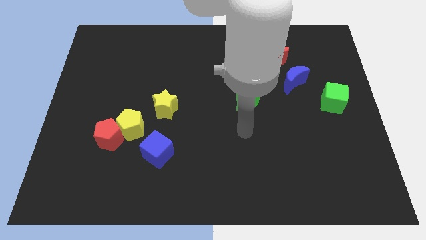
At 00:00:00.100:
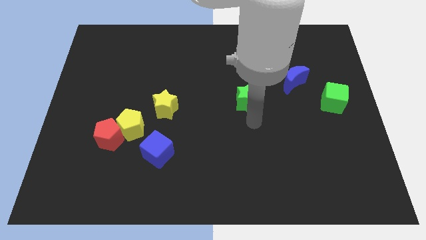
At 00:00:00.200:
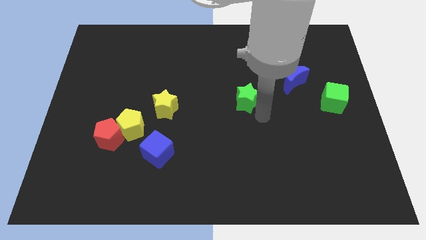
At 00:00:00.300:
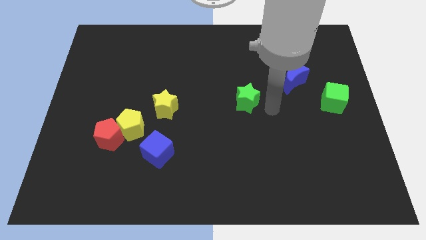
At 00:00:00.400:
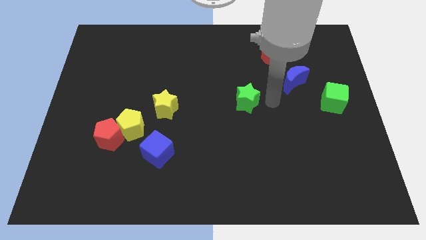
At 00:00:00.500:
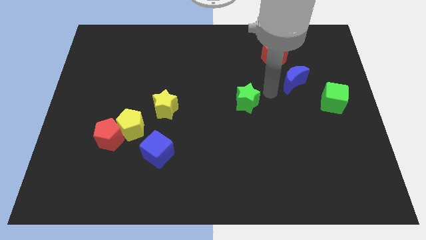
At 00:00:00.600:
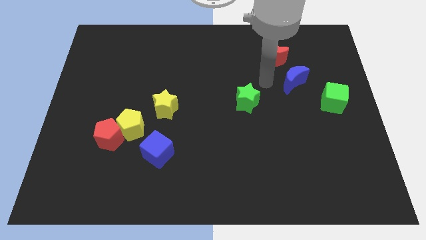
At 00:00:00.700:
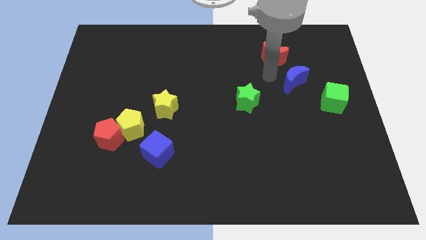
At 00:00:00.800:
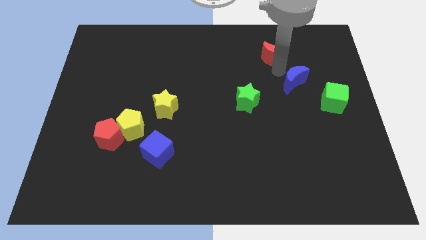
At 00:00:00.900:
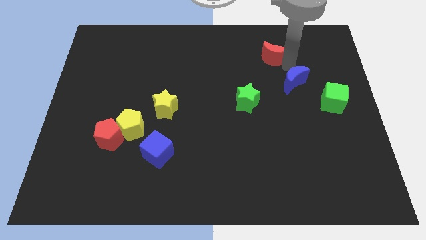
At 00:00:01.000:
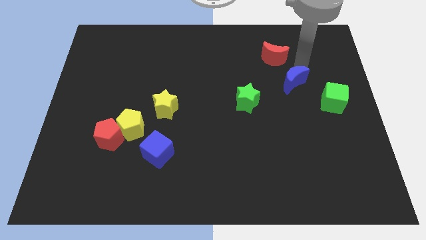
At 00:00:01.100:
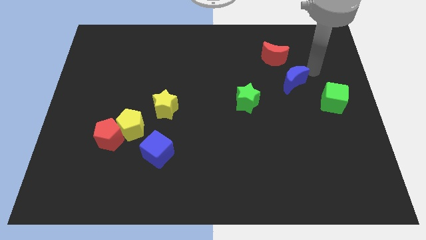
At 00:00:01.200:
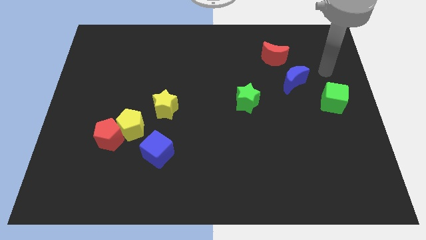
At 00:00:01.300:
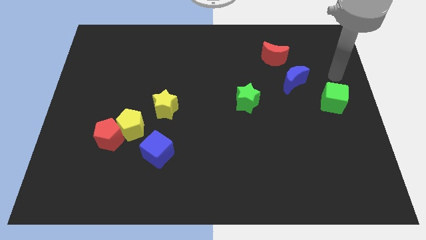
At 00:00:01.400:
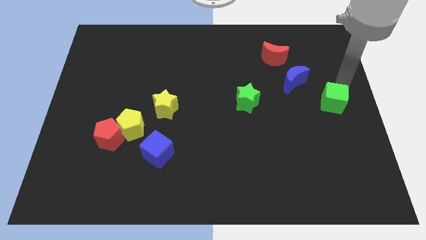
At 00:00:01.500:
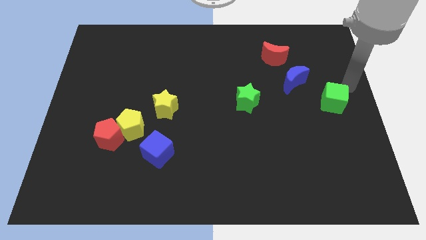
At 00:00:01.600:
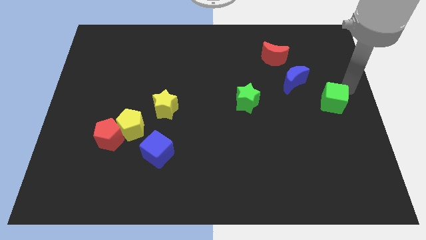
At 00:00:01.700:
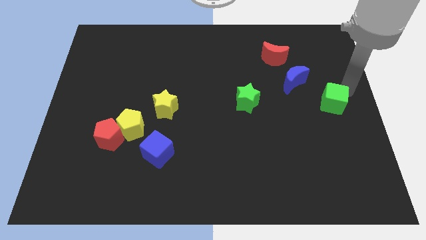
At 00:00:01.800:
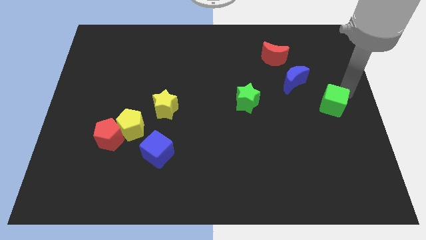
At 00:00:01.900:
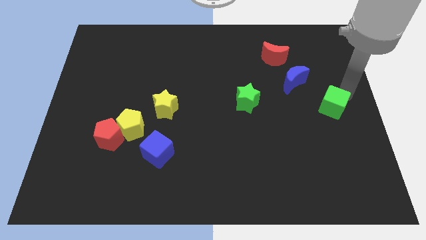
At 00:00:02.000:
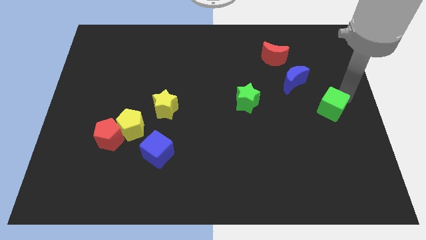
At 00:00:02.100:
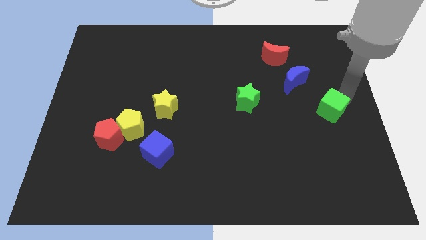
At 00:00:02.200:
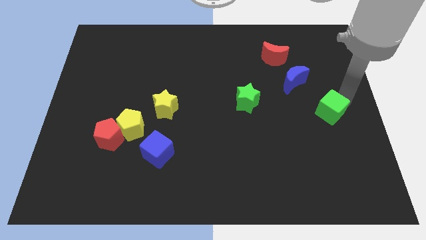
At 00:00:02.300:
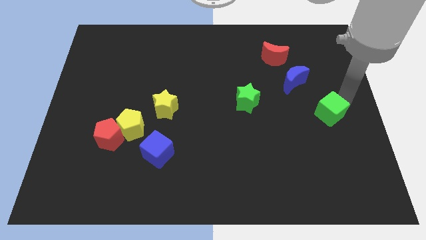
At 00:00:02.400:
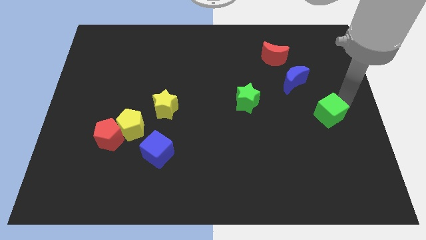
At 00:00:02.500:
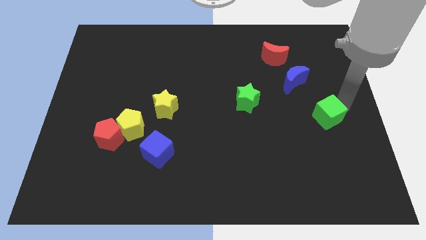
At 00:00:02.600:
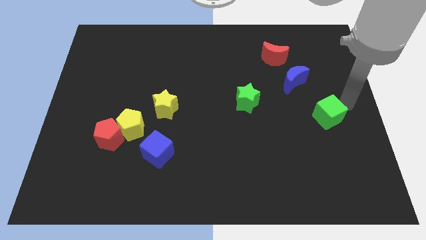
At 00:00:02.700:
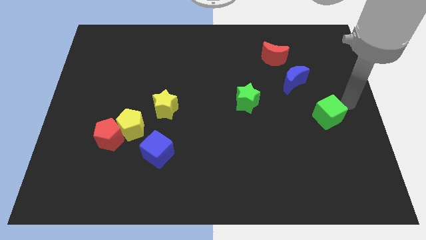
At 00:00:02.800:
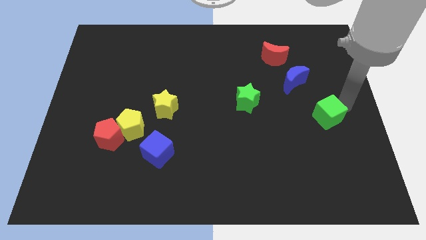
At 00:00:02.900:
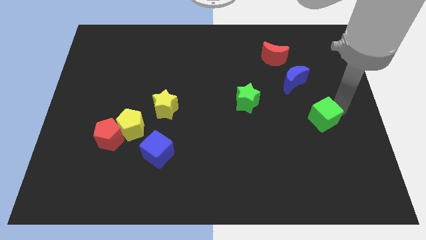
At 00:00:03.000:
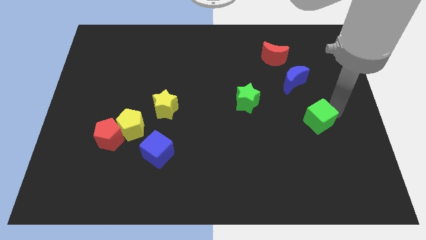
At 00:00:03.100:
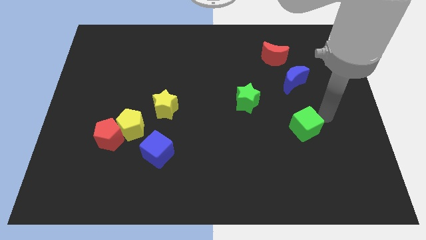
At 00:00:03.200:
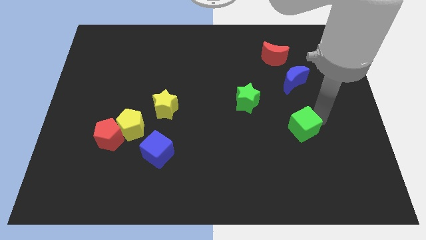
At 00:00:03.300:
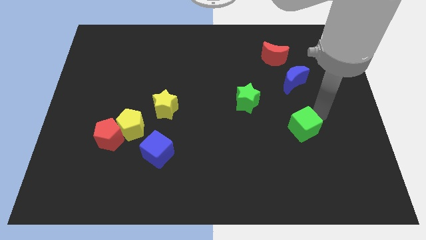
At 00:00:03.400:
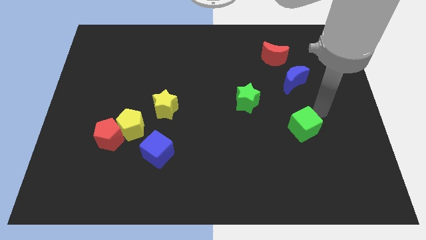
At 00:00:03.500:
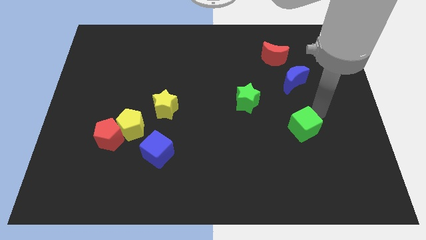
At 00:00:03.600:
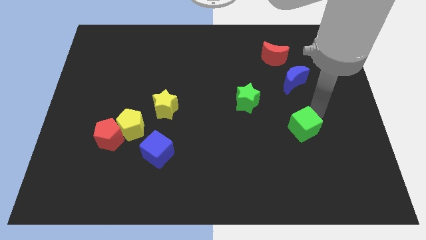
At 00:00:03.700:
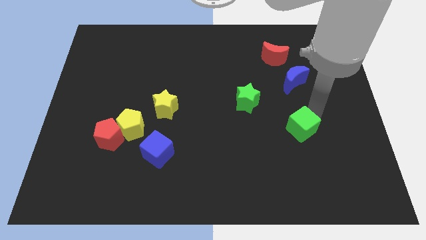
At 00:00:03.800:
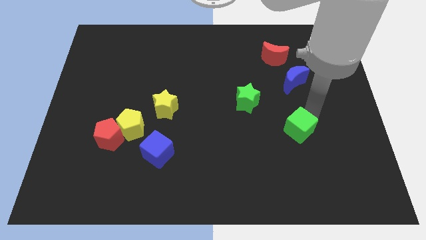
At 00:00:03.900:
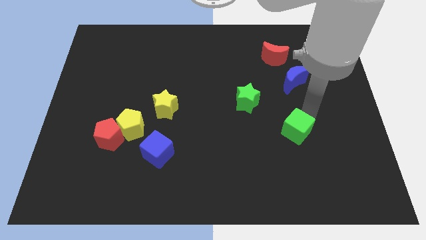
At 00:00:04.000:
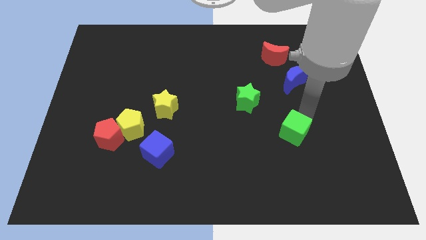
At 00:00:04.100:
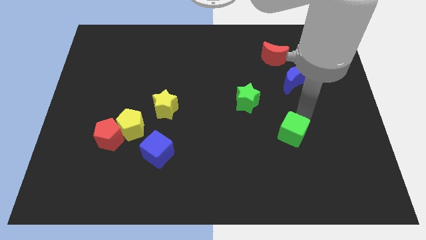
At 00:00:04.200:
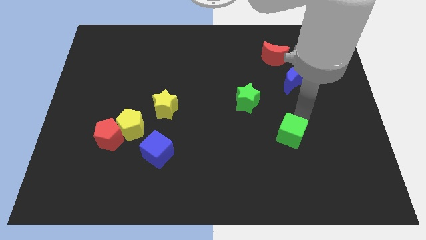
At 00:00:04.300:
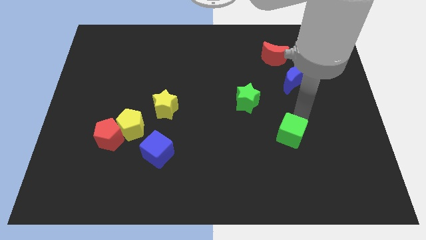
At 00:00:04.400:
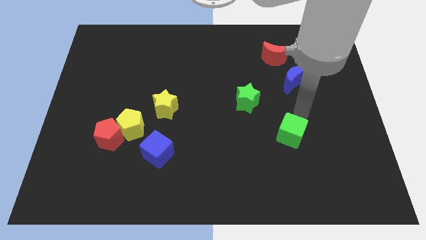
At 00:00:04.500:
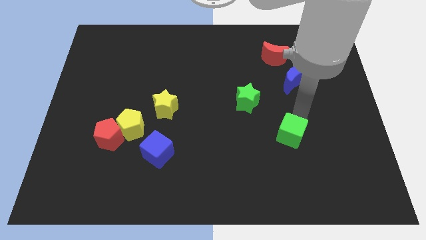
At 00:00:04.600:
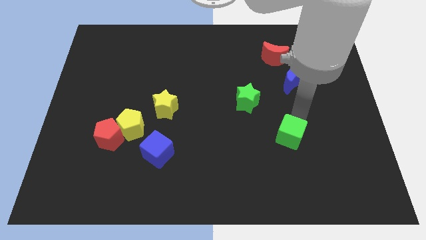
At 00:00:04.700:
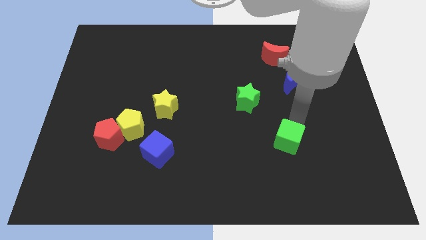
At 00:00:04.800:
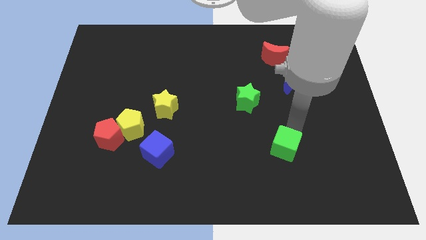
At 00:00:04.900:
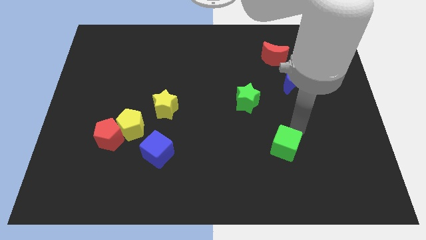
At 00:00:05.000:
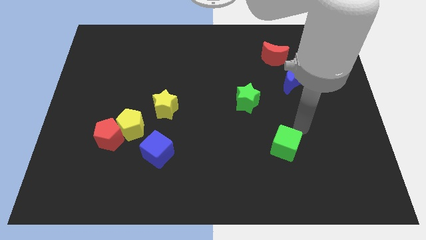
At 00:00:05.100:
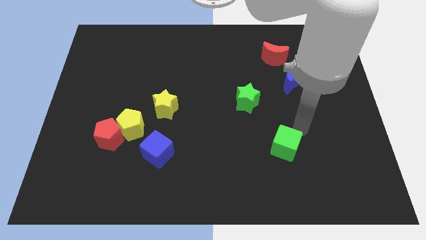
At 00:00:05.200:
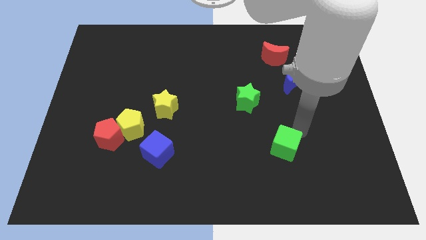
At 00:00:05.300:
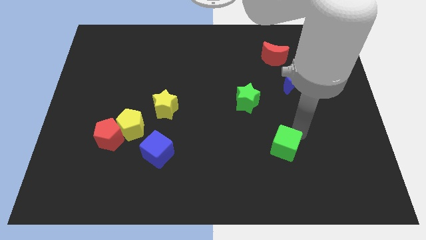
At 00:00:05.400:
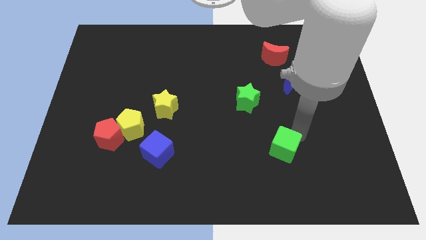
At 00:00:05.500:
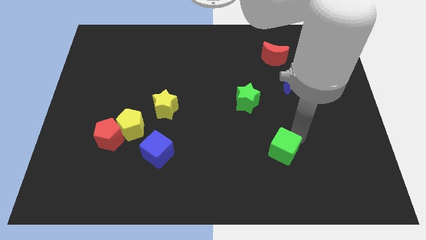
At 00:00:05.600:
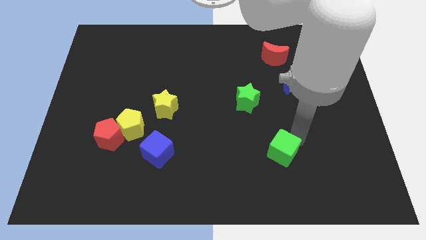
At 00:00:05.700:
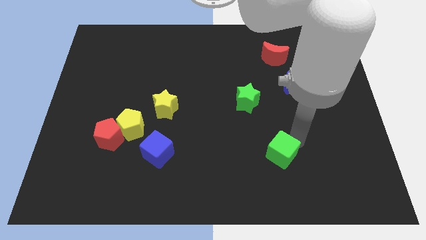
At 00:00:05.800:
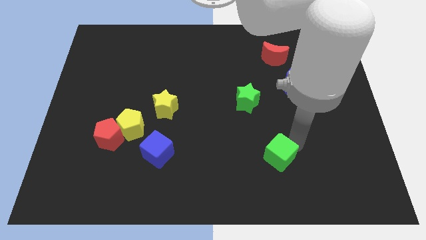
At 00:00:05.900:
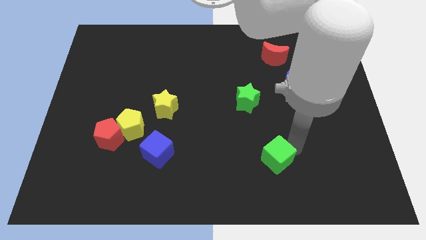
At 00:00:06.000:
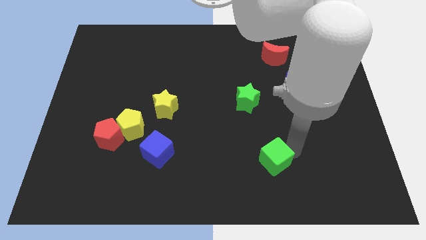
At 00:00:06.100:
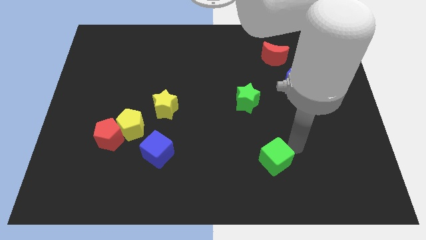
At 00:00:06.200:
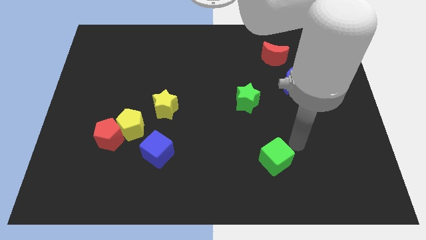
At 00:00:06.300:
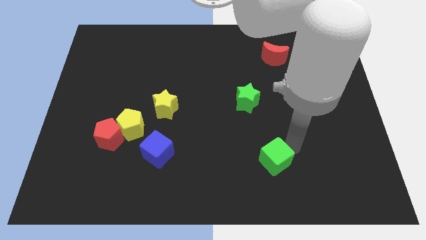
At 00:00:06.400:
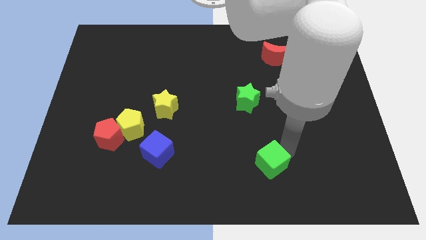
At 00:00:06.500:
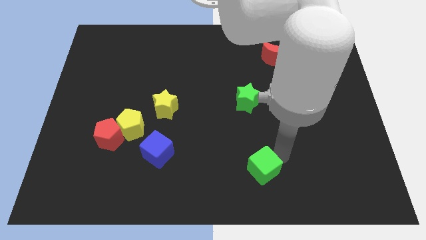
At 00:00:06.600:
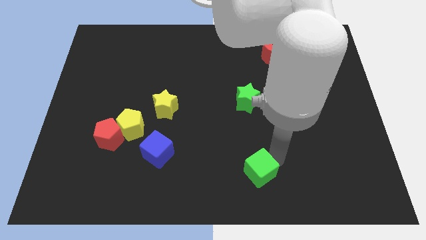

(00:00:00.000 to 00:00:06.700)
move the green cube to the bottom side
